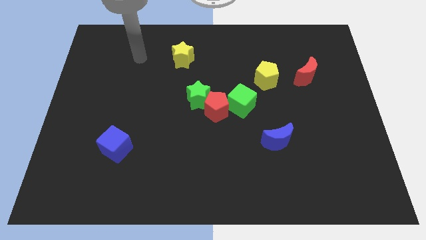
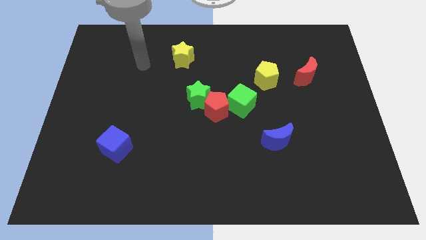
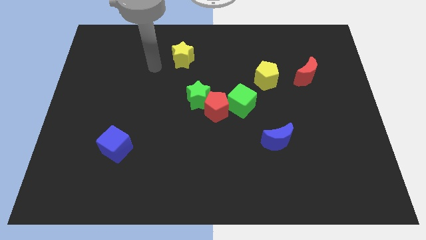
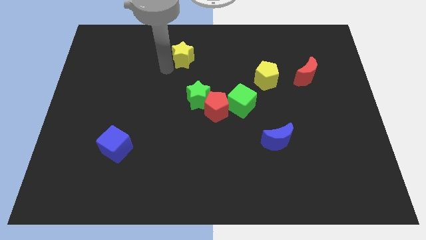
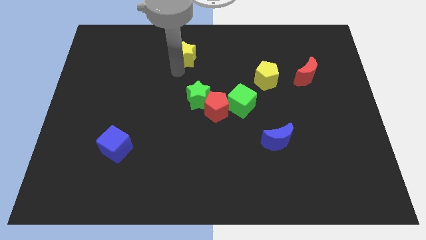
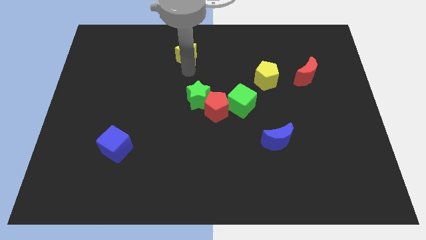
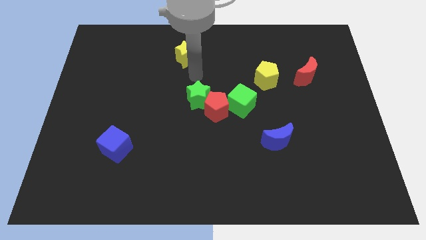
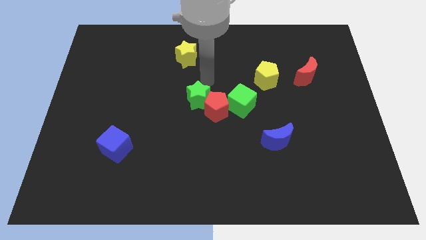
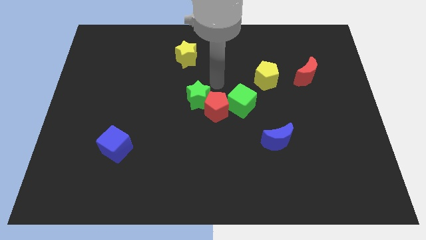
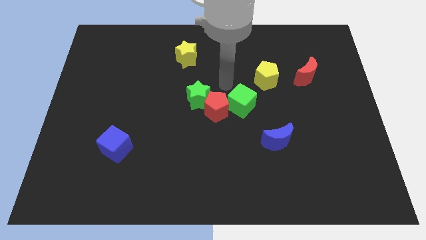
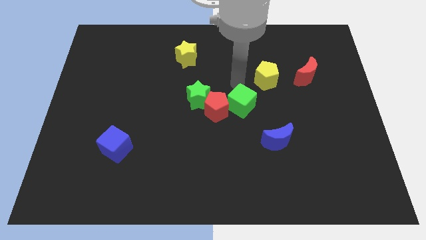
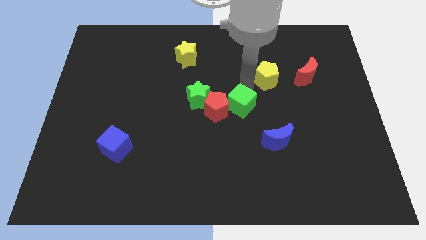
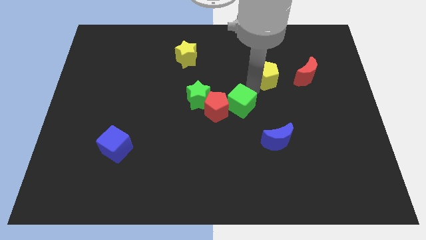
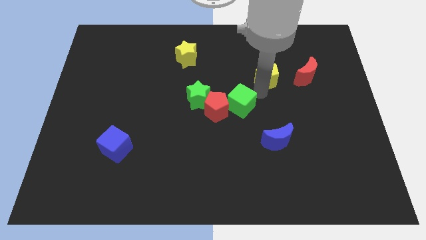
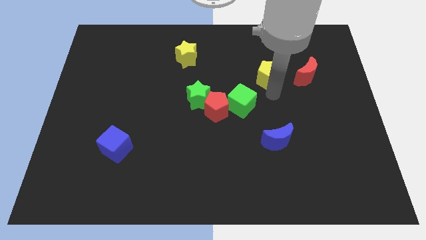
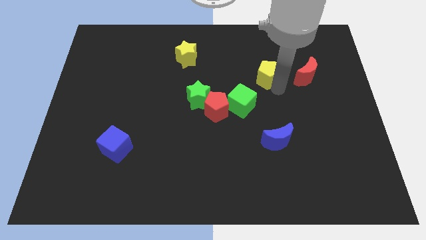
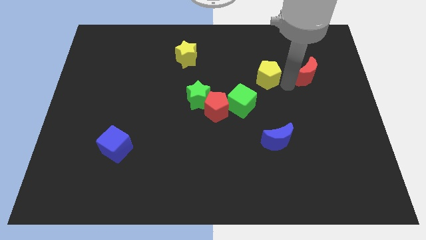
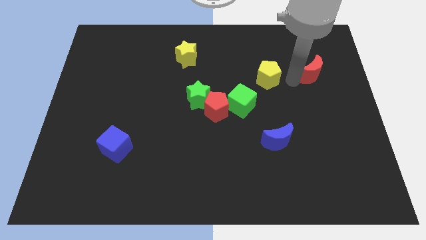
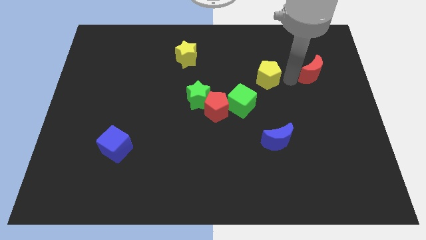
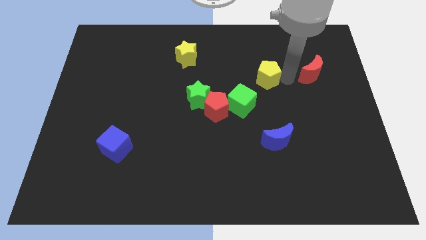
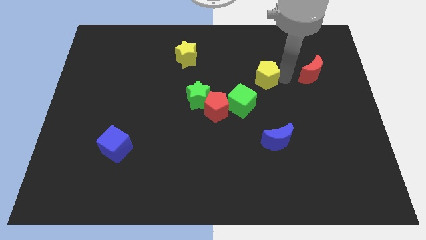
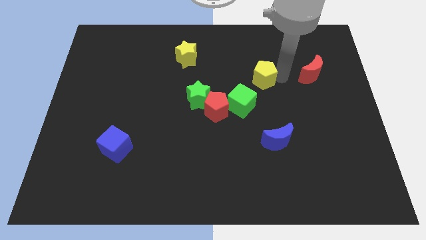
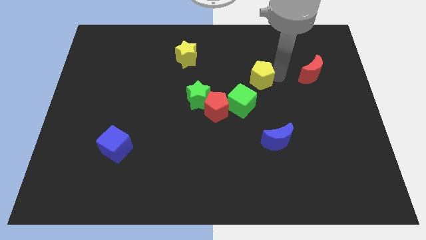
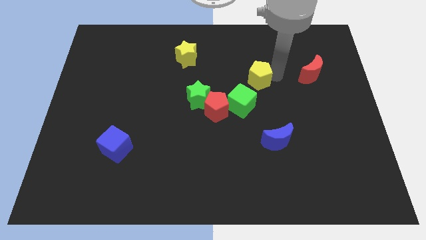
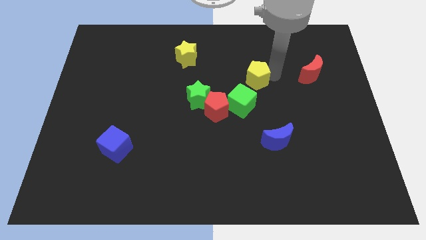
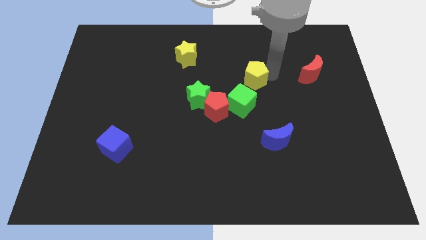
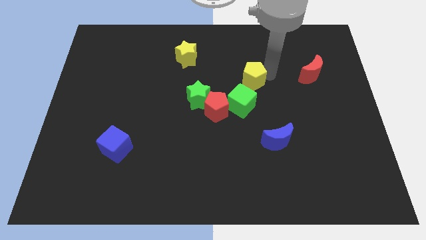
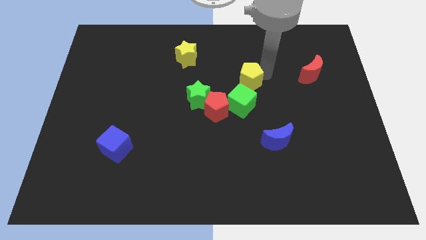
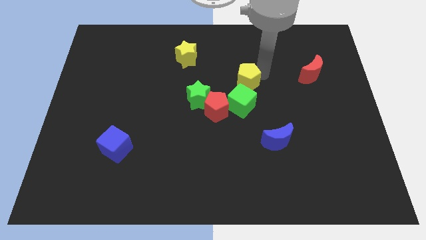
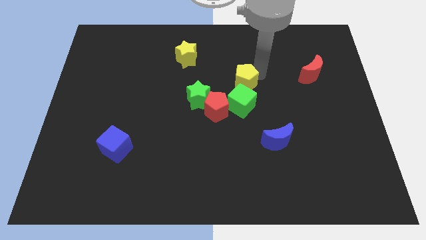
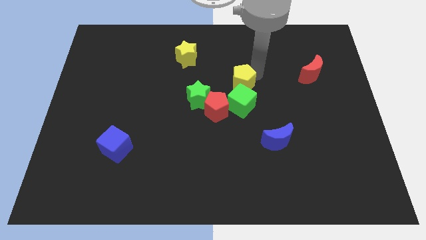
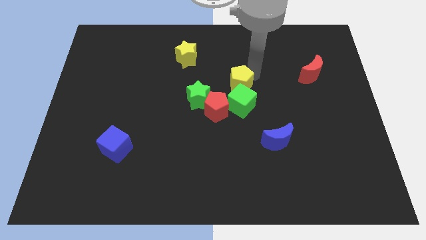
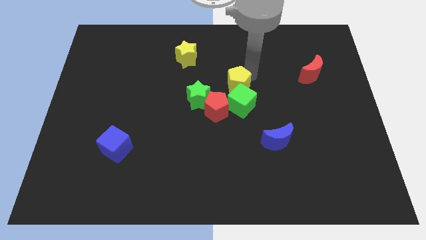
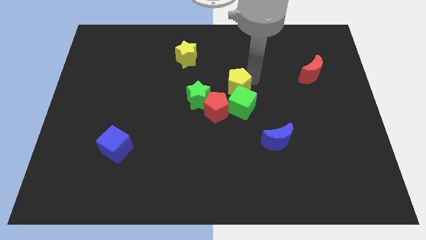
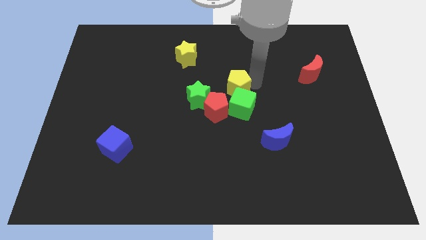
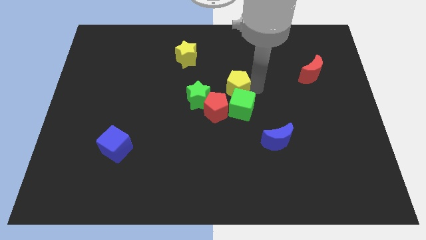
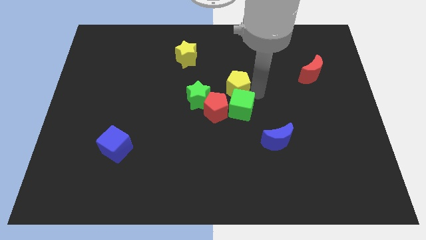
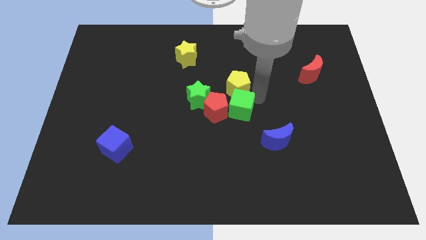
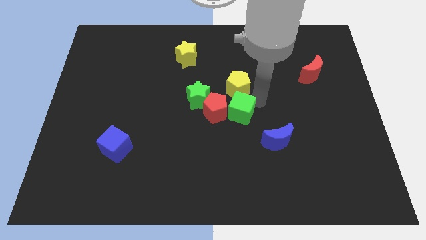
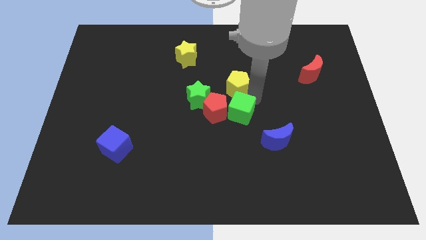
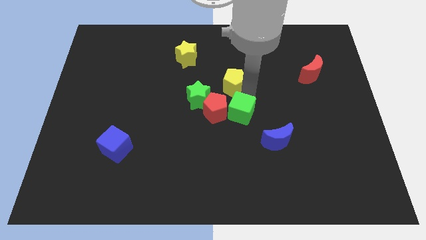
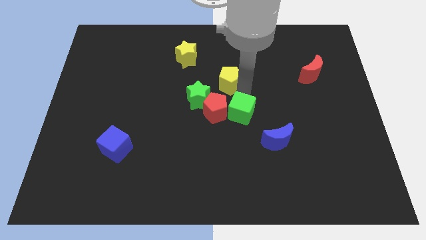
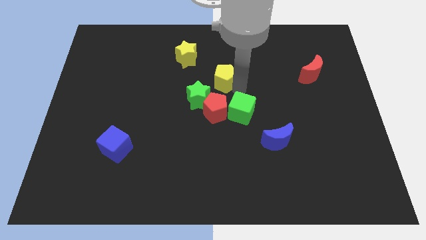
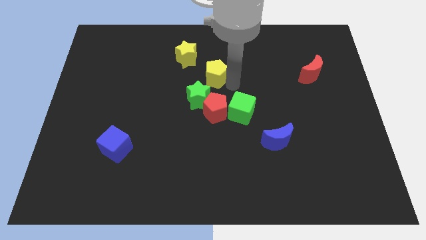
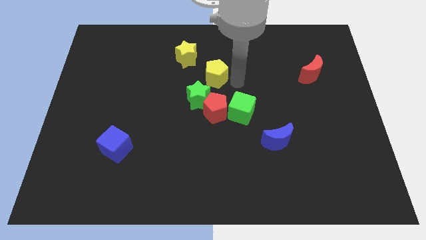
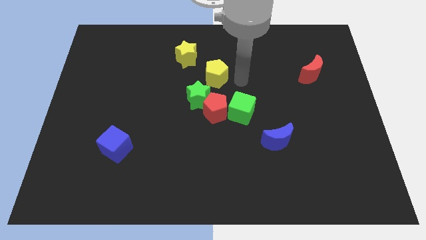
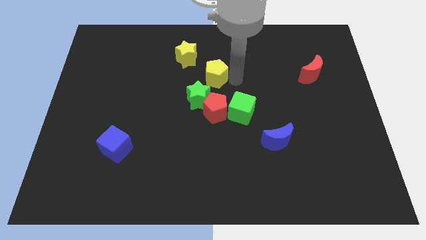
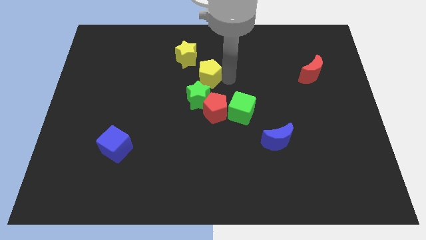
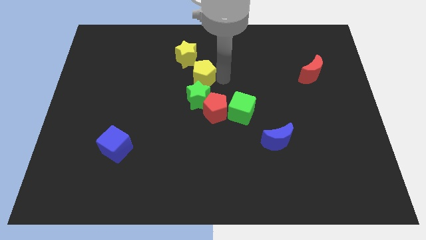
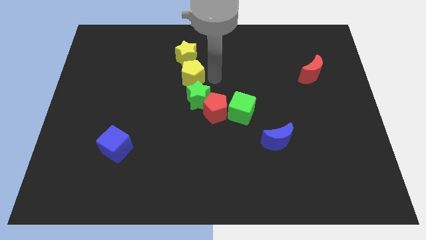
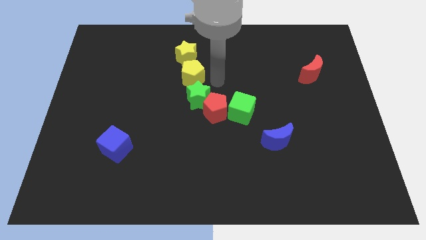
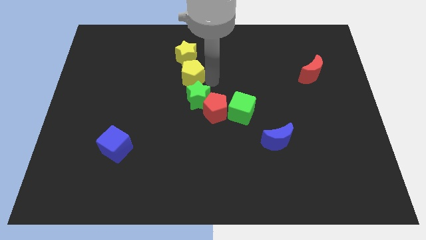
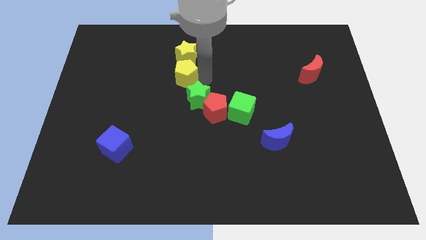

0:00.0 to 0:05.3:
move the yellow pentagon to the left

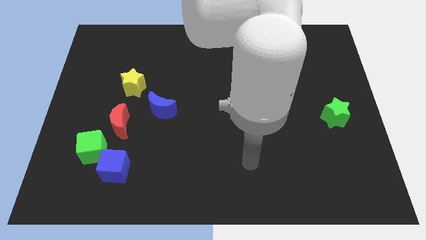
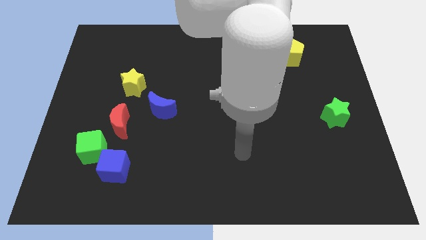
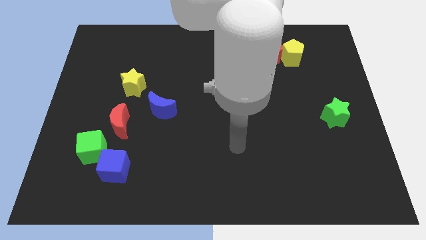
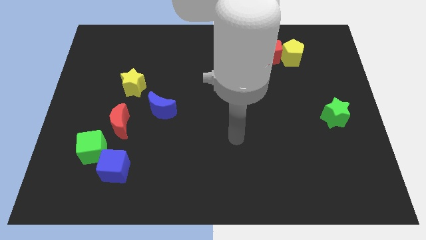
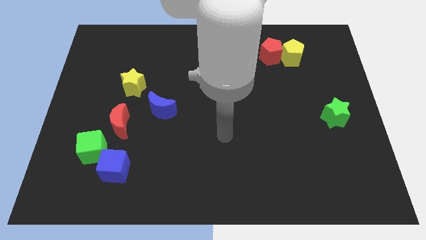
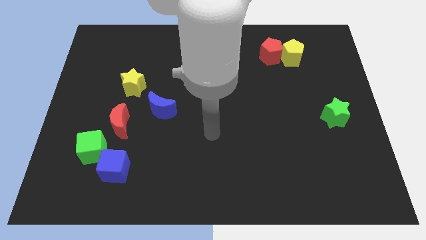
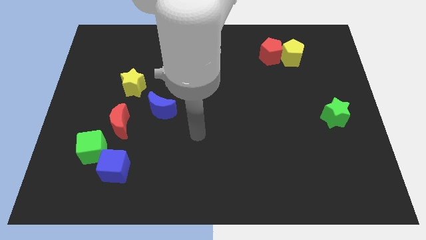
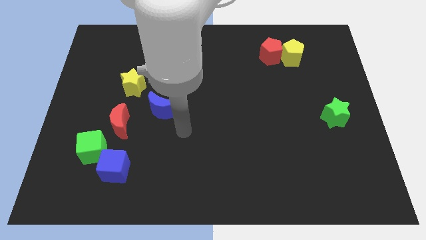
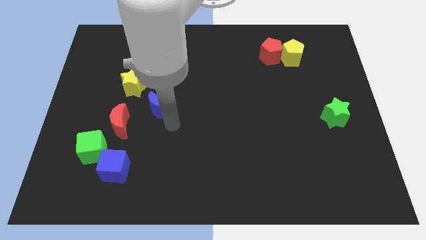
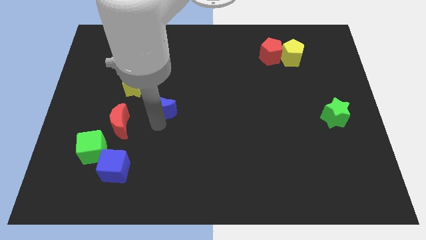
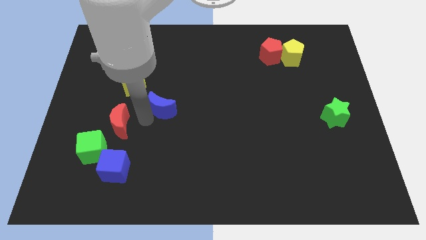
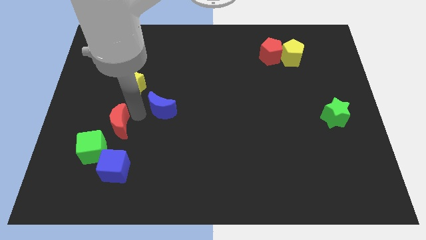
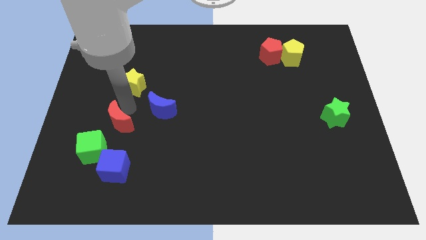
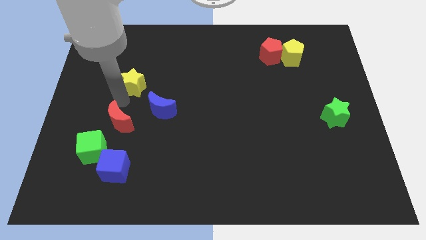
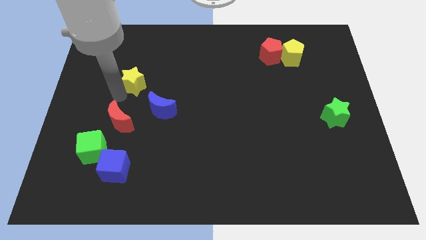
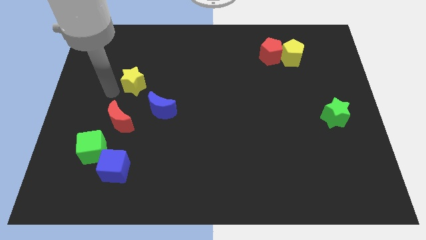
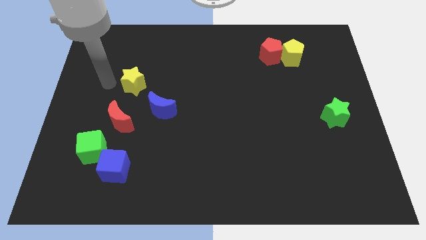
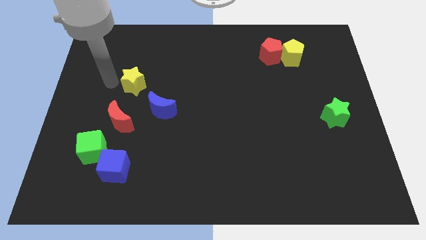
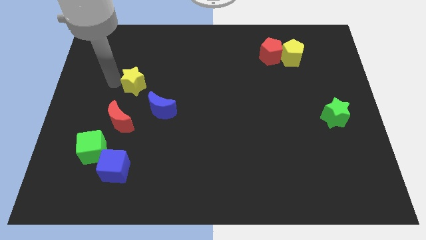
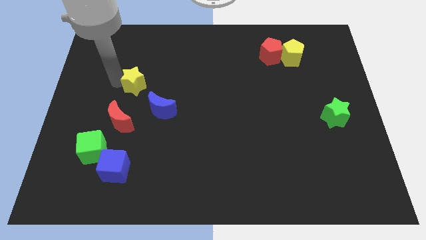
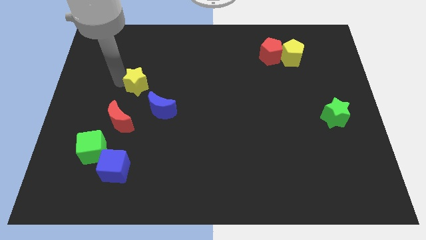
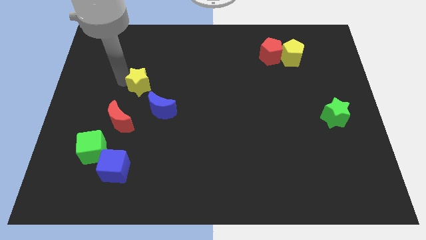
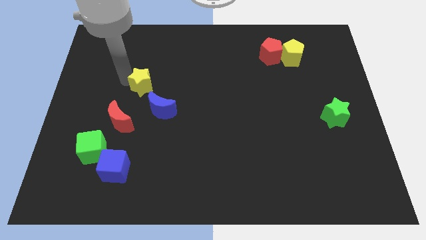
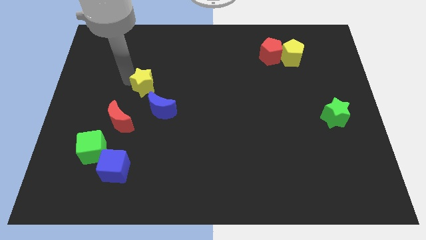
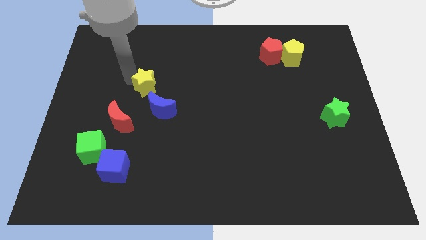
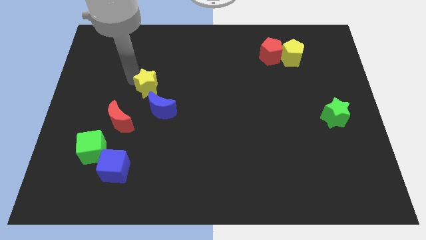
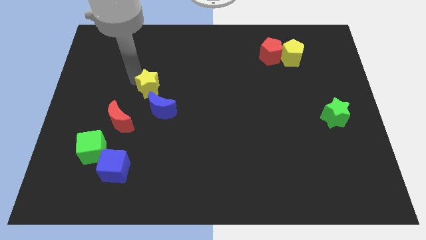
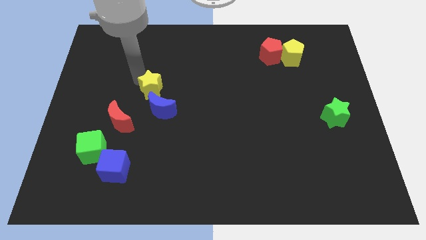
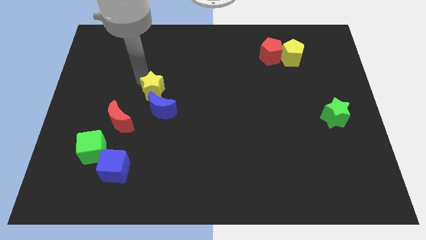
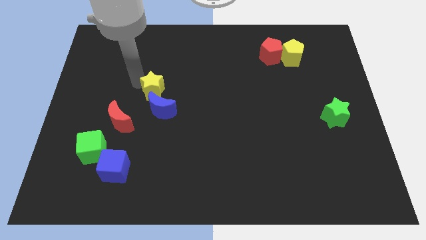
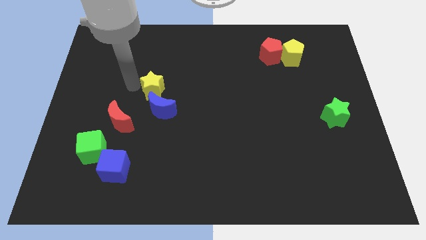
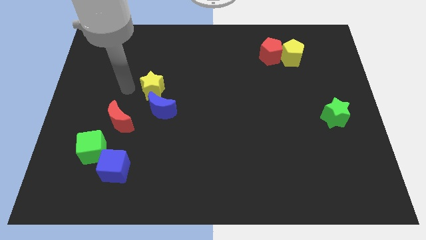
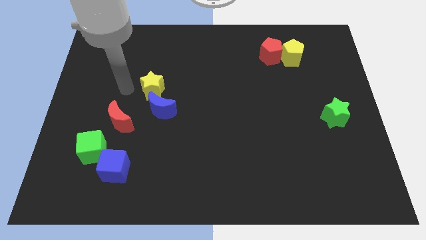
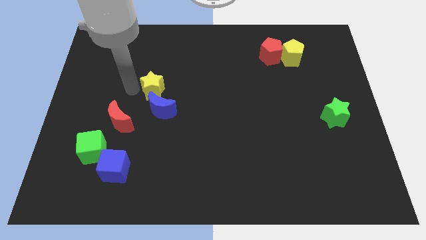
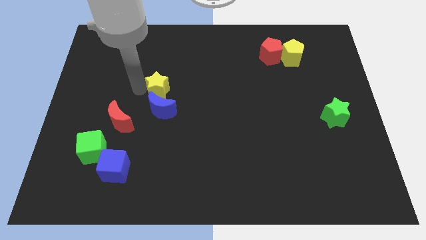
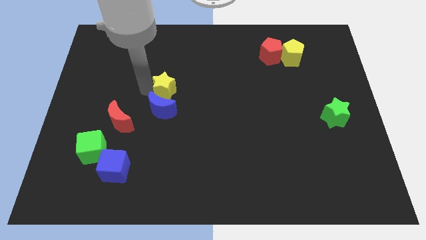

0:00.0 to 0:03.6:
push the yellow star somewhat to the right
